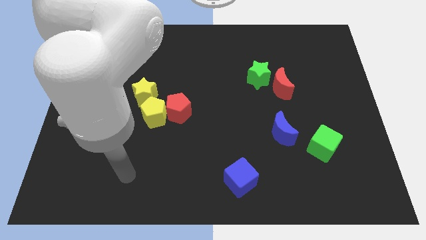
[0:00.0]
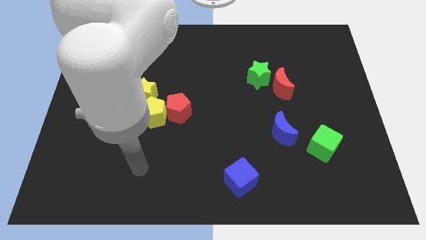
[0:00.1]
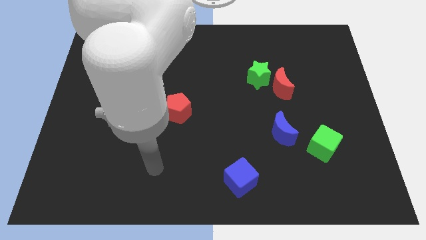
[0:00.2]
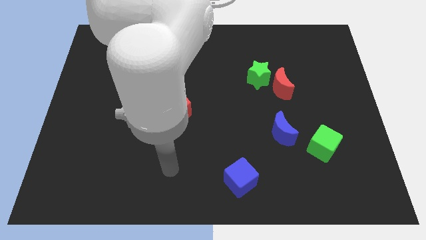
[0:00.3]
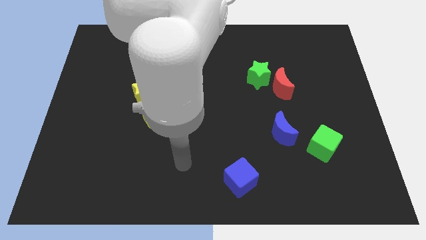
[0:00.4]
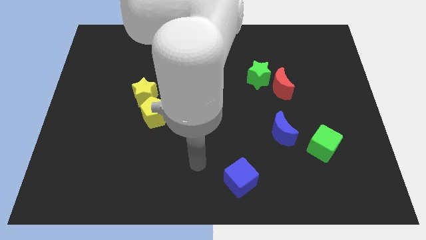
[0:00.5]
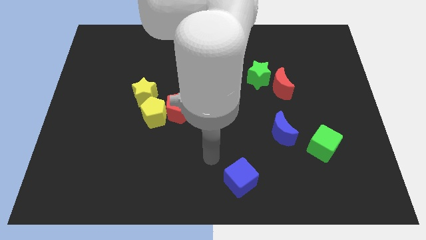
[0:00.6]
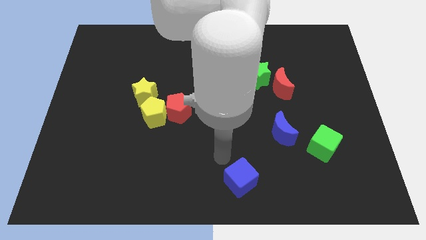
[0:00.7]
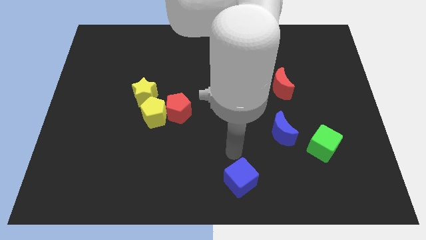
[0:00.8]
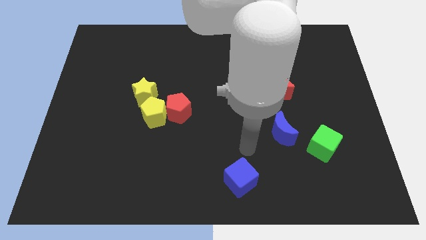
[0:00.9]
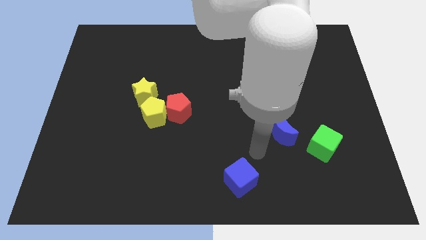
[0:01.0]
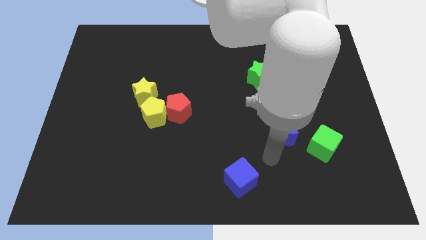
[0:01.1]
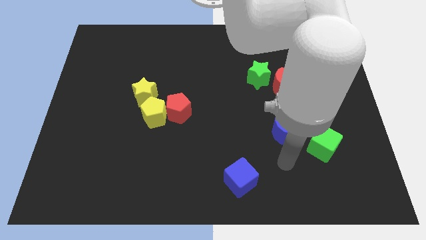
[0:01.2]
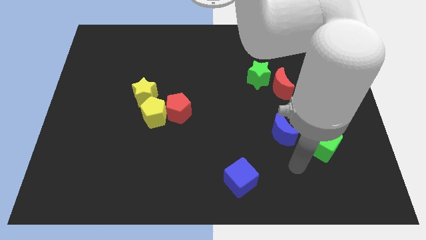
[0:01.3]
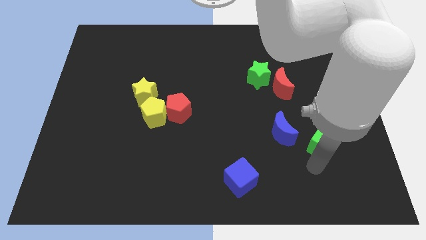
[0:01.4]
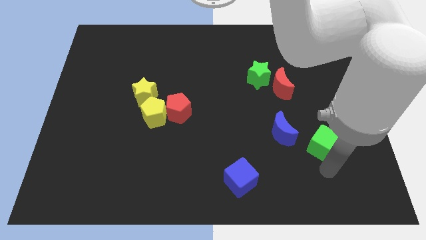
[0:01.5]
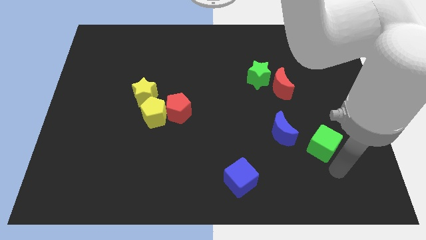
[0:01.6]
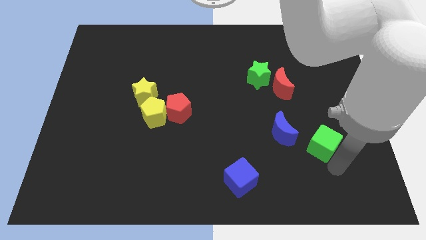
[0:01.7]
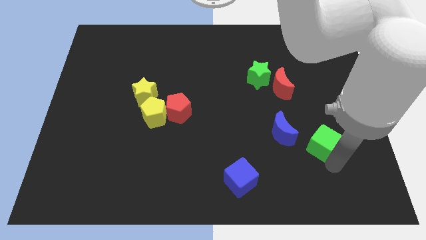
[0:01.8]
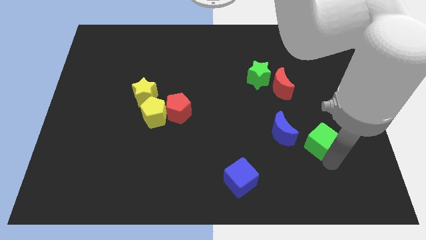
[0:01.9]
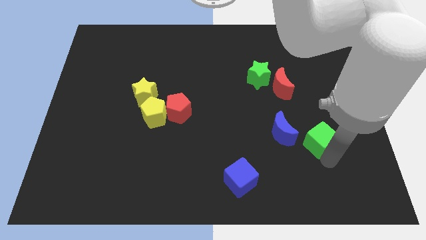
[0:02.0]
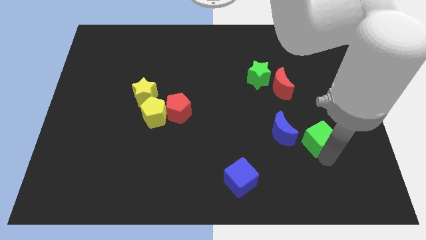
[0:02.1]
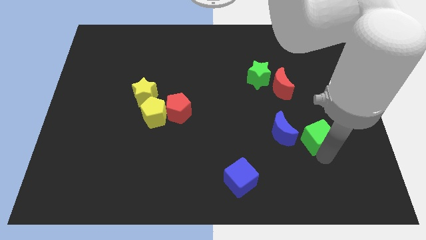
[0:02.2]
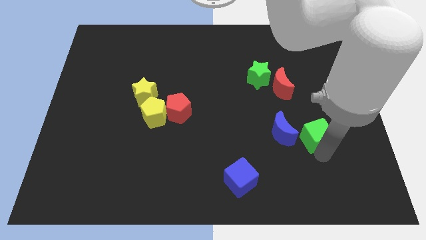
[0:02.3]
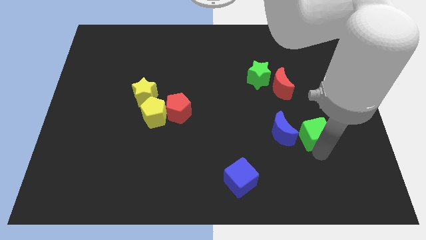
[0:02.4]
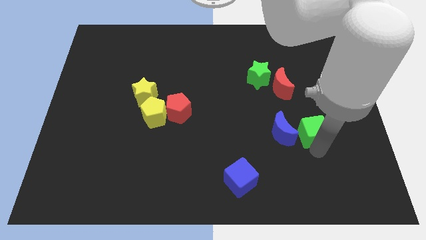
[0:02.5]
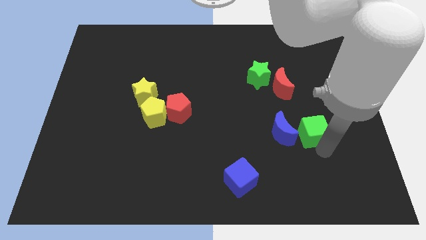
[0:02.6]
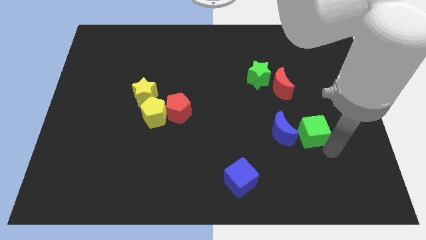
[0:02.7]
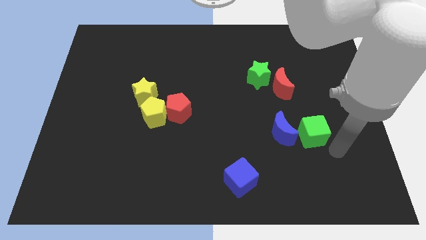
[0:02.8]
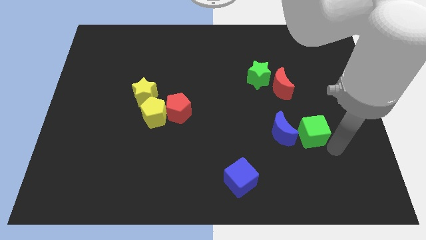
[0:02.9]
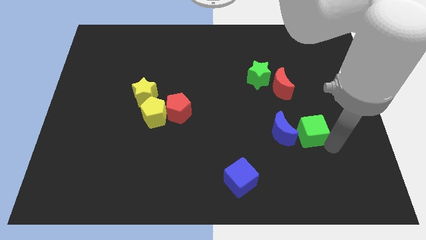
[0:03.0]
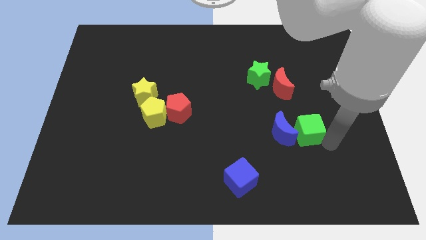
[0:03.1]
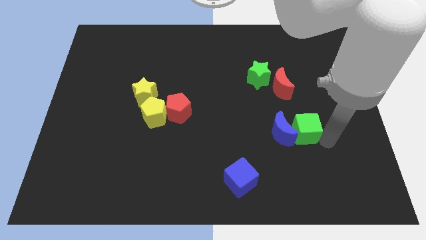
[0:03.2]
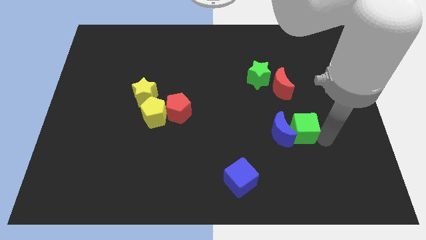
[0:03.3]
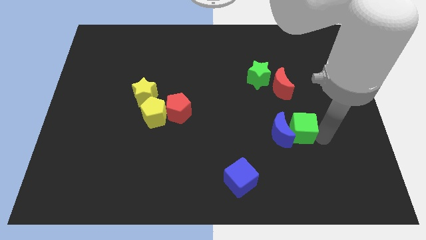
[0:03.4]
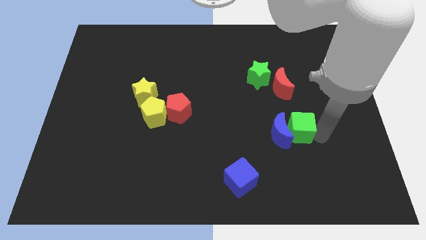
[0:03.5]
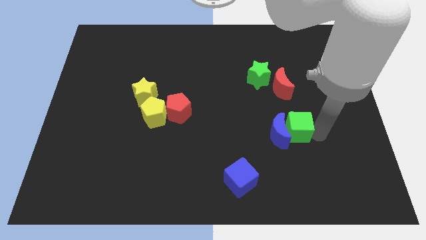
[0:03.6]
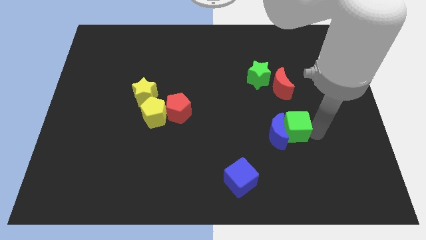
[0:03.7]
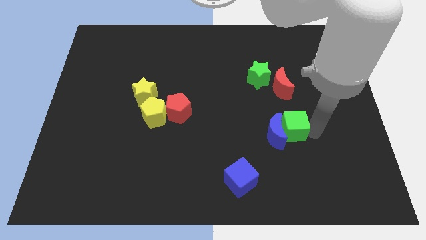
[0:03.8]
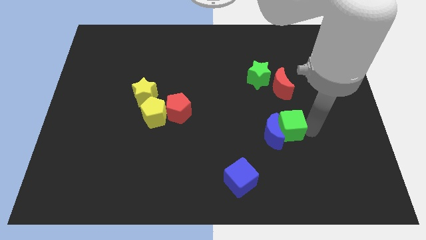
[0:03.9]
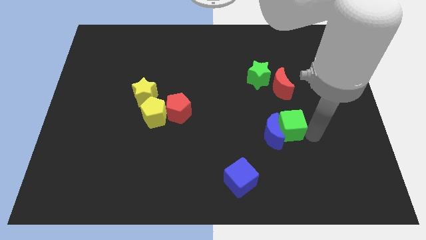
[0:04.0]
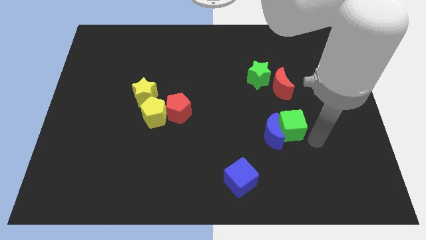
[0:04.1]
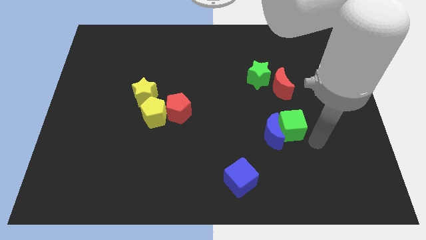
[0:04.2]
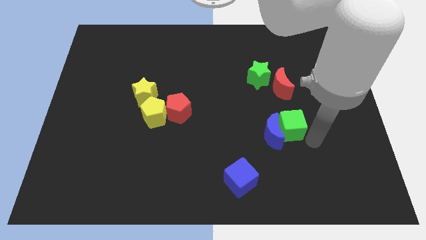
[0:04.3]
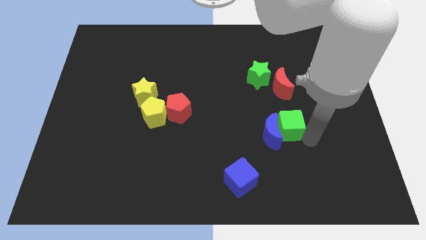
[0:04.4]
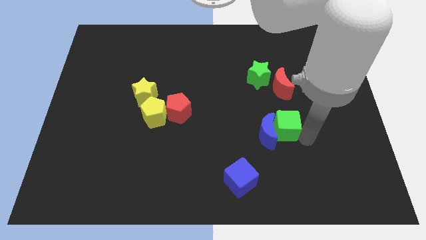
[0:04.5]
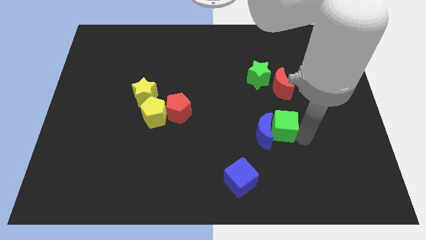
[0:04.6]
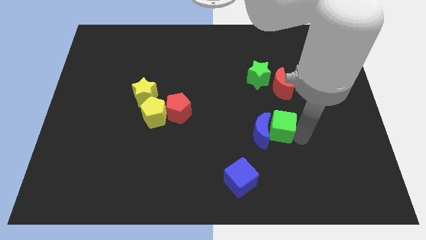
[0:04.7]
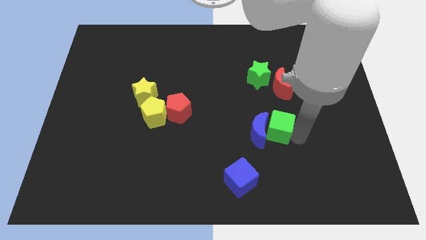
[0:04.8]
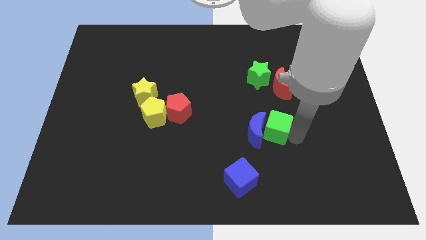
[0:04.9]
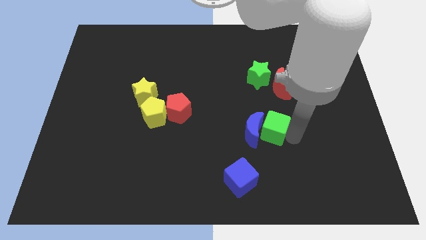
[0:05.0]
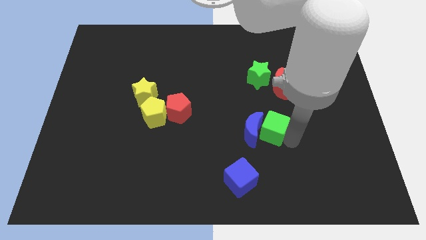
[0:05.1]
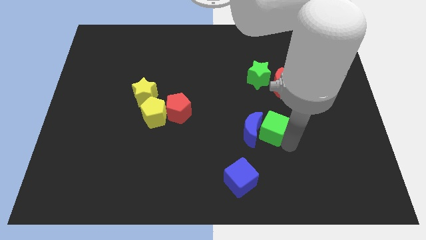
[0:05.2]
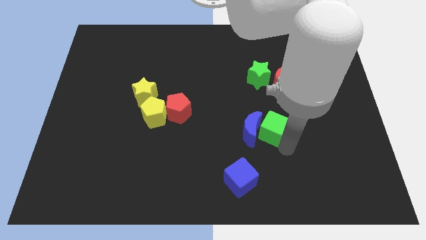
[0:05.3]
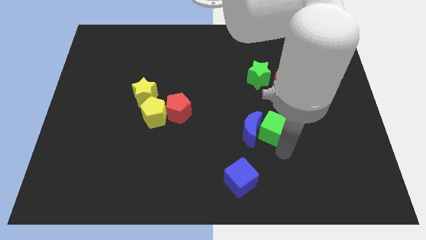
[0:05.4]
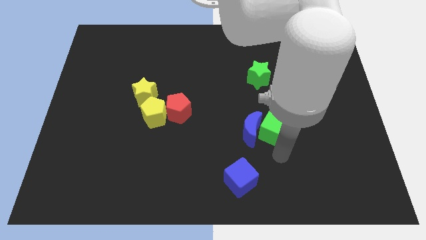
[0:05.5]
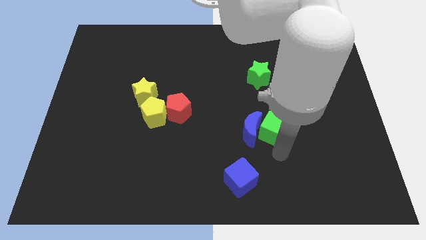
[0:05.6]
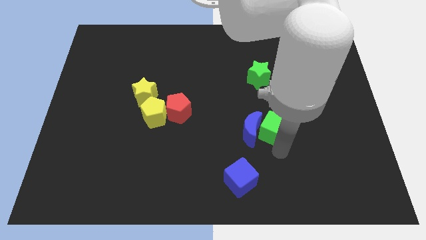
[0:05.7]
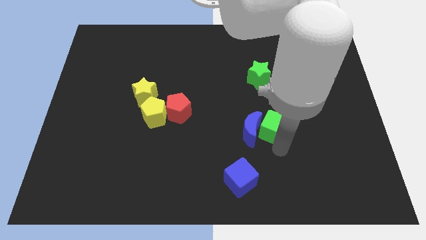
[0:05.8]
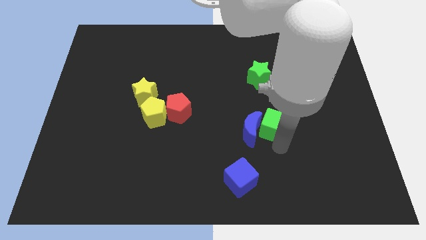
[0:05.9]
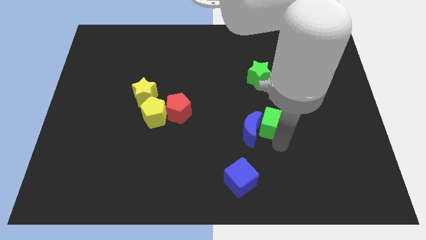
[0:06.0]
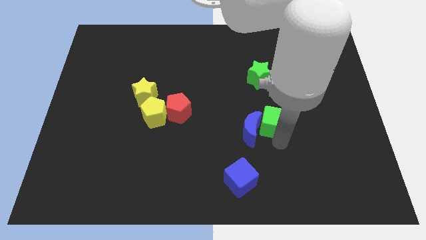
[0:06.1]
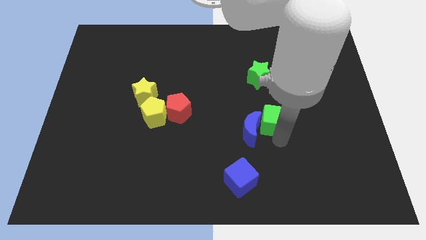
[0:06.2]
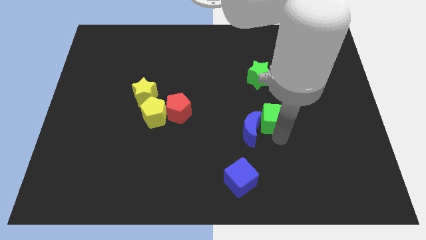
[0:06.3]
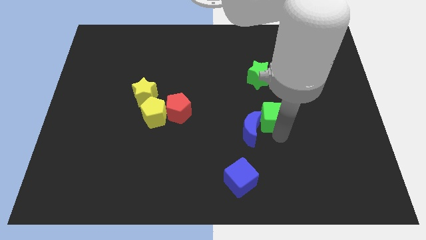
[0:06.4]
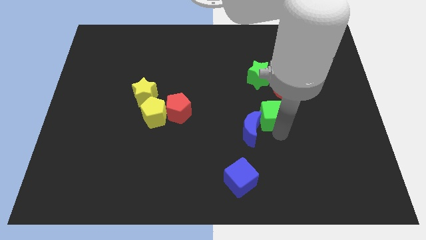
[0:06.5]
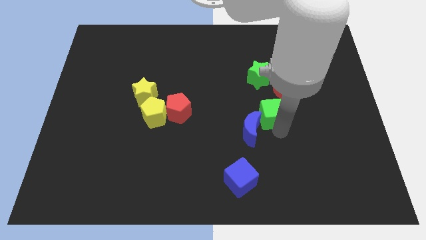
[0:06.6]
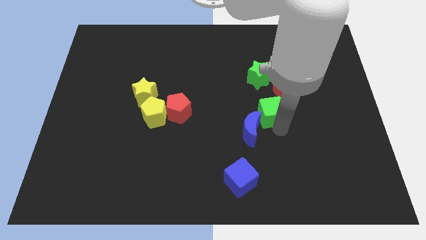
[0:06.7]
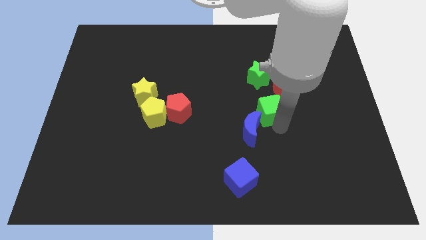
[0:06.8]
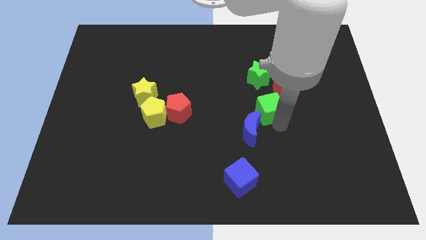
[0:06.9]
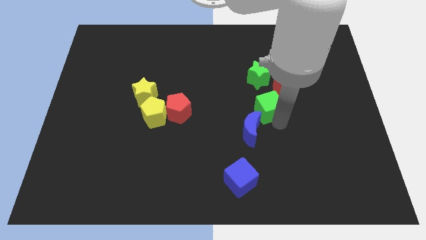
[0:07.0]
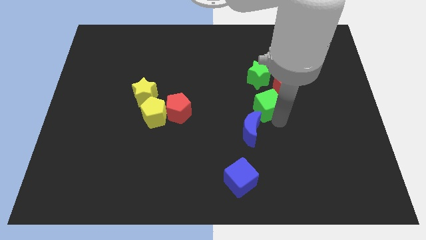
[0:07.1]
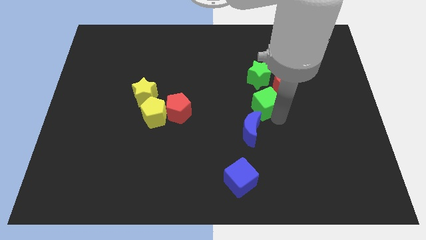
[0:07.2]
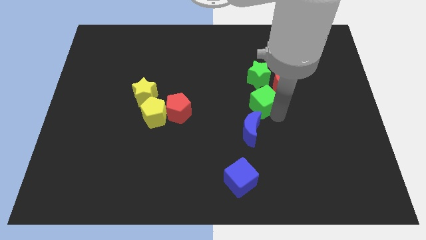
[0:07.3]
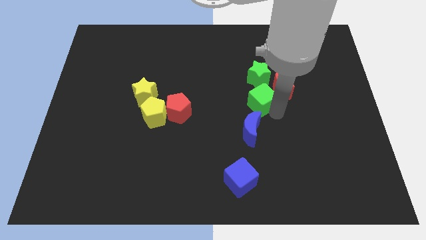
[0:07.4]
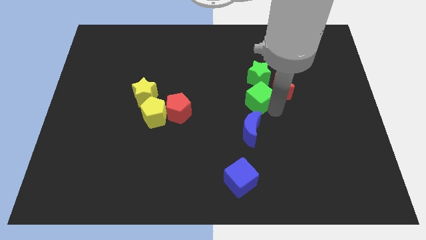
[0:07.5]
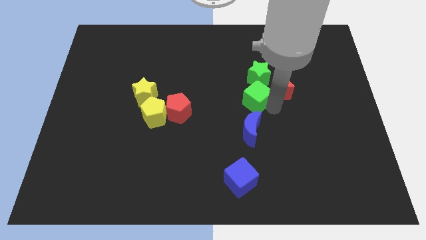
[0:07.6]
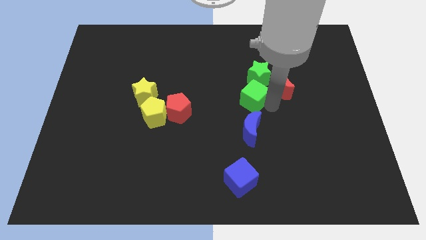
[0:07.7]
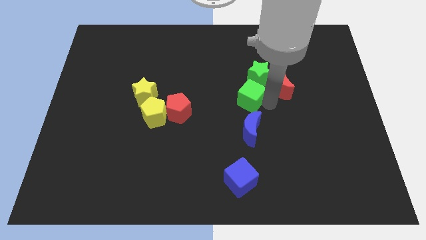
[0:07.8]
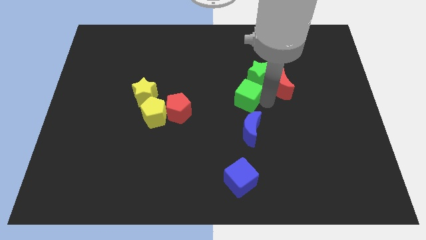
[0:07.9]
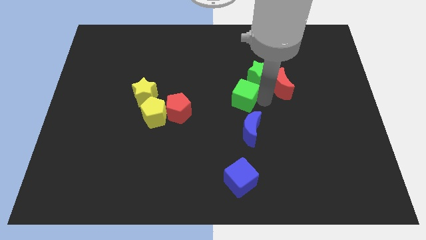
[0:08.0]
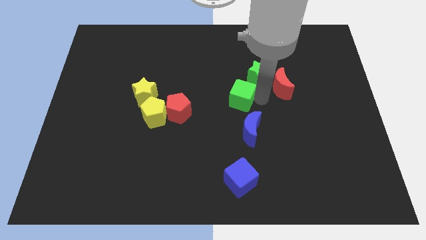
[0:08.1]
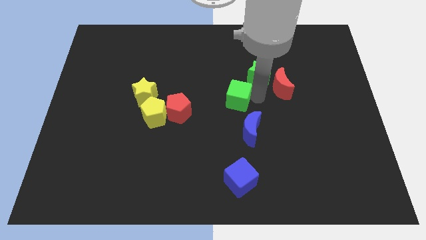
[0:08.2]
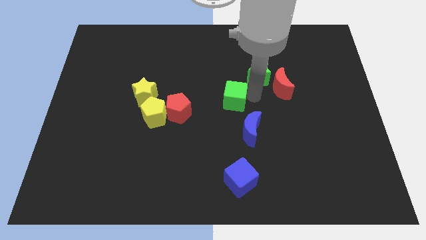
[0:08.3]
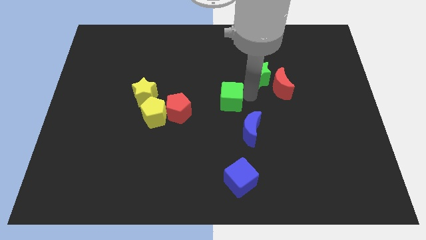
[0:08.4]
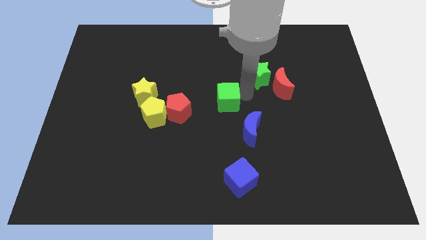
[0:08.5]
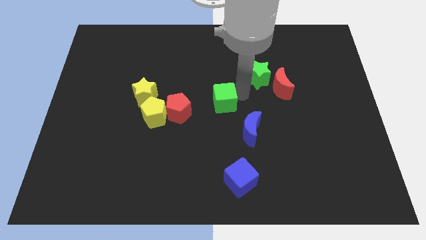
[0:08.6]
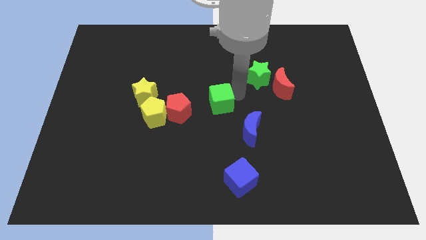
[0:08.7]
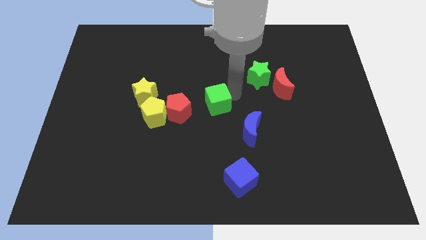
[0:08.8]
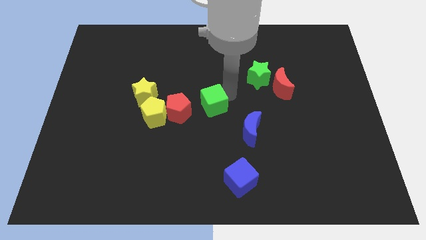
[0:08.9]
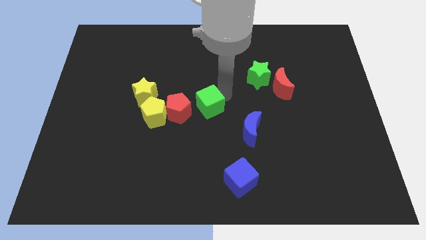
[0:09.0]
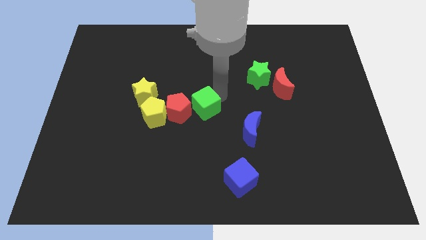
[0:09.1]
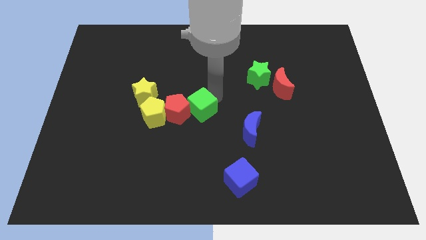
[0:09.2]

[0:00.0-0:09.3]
put the green cube close to the red pentagon
